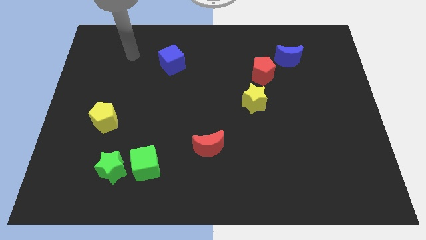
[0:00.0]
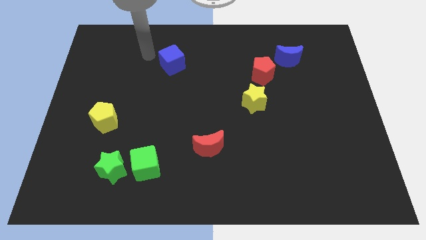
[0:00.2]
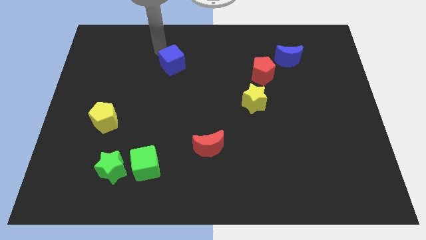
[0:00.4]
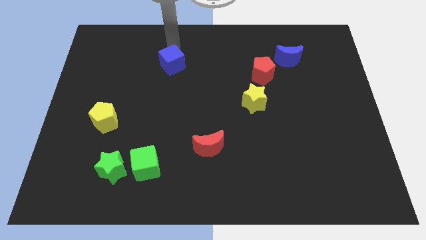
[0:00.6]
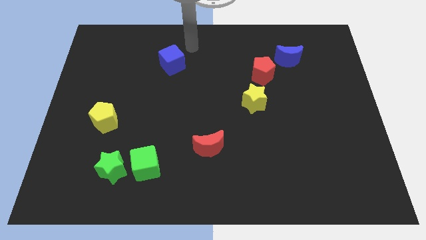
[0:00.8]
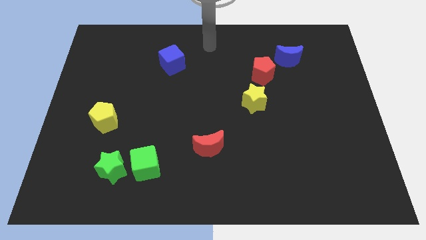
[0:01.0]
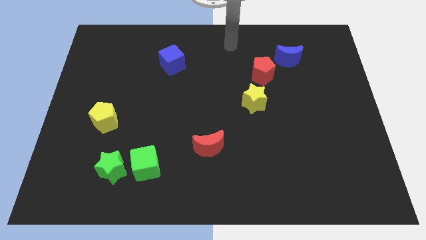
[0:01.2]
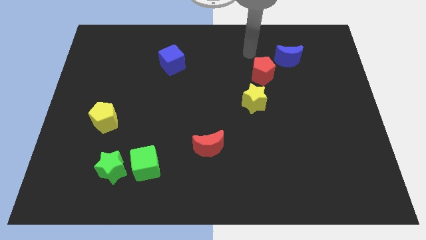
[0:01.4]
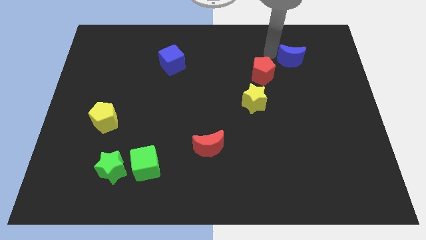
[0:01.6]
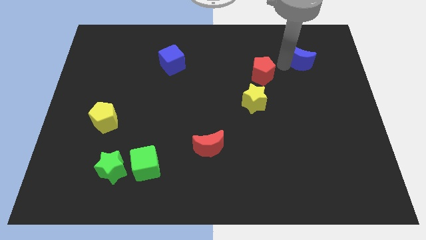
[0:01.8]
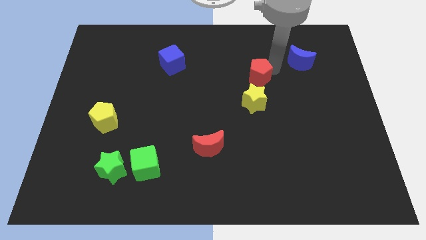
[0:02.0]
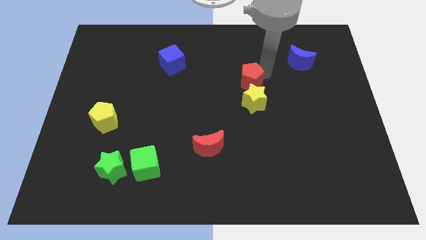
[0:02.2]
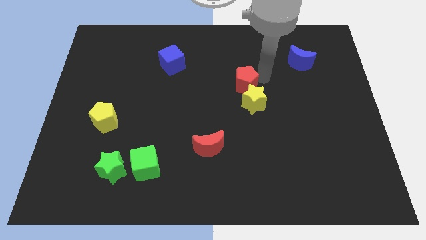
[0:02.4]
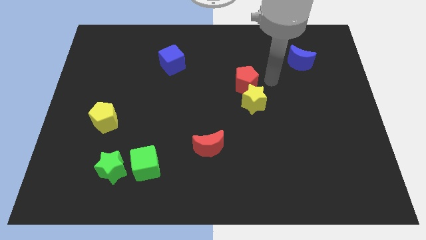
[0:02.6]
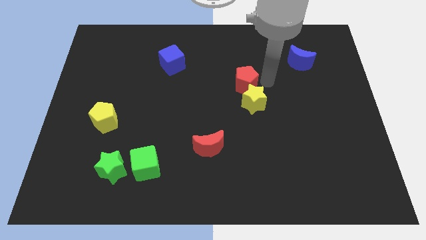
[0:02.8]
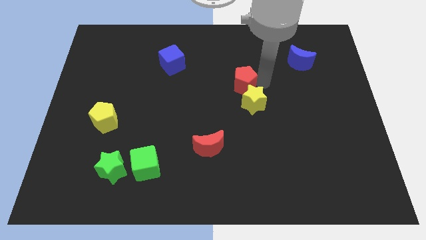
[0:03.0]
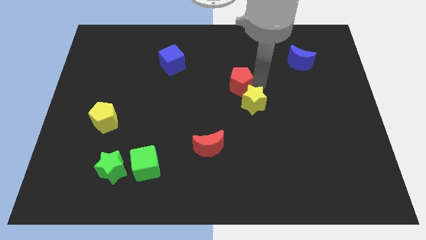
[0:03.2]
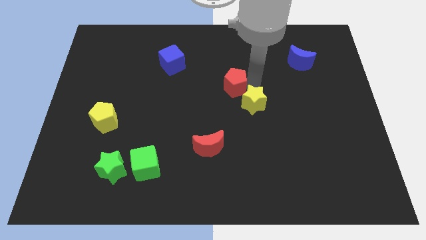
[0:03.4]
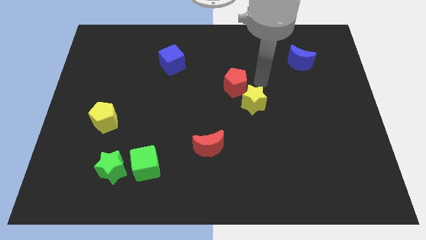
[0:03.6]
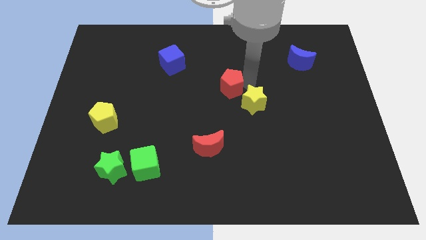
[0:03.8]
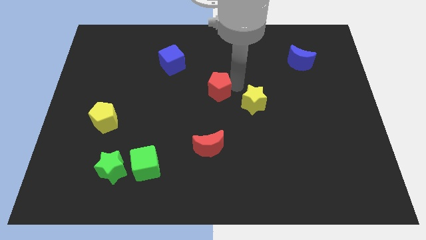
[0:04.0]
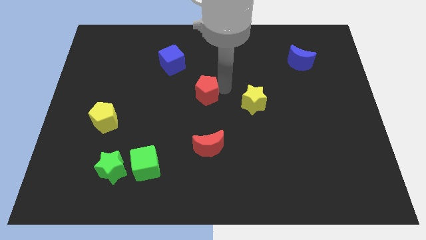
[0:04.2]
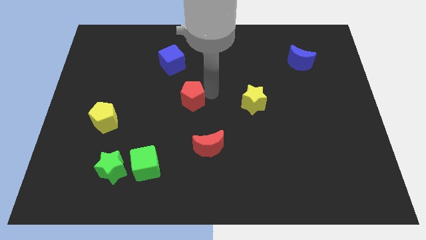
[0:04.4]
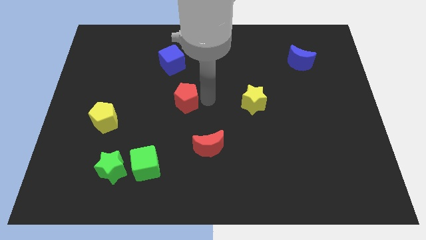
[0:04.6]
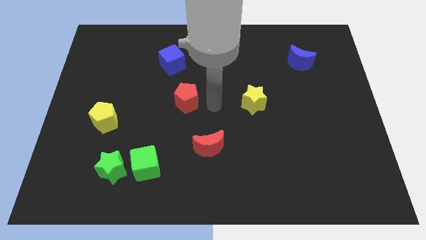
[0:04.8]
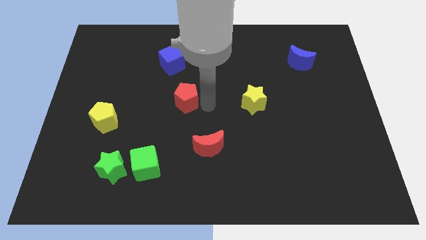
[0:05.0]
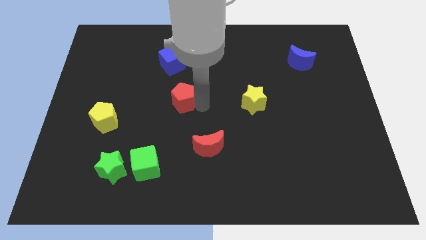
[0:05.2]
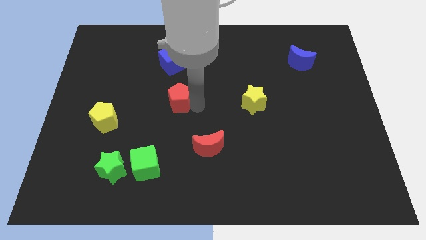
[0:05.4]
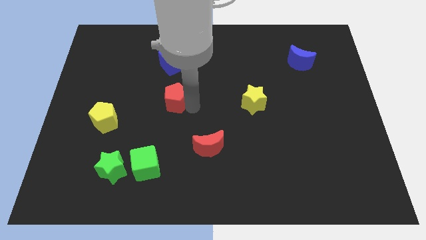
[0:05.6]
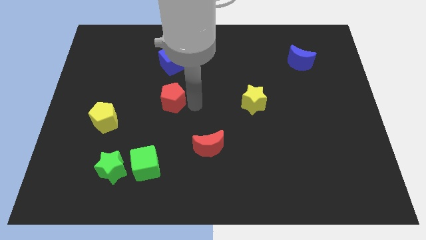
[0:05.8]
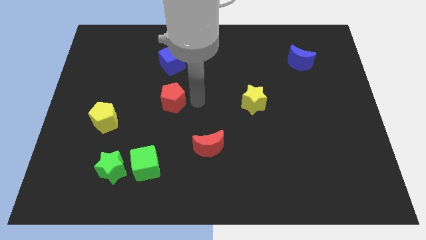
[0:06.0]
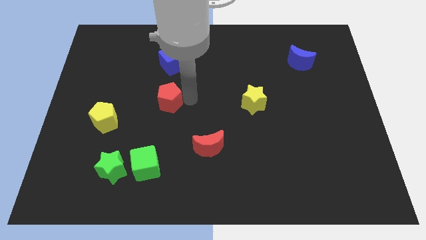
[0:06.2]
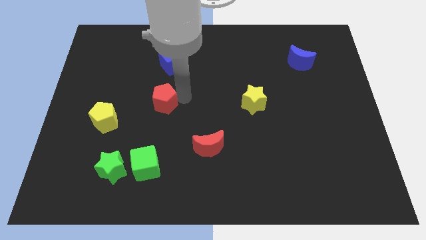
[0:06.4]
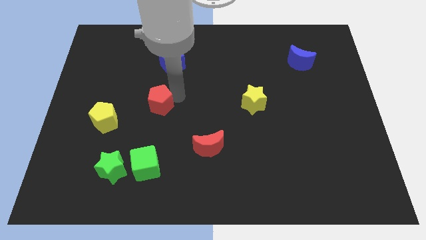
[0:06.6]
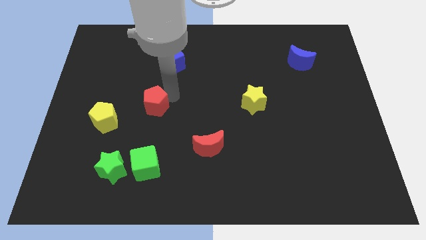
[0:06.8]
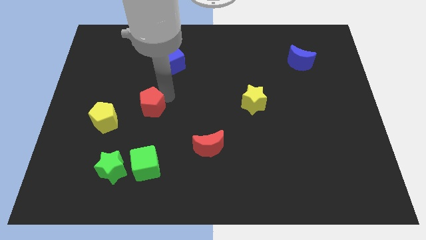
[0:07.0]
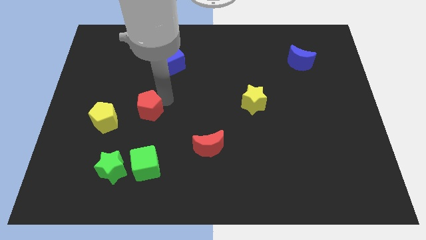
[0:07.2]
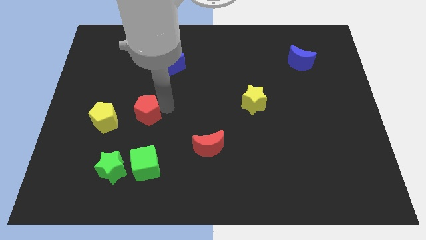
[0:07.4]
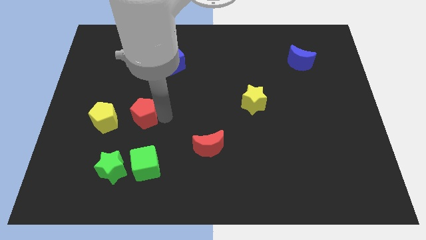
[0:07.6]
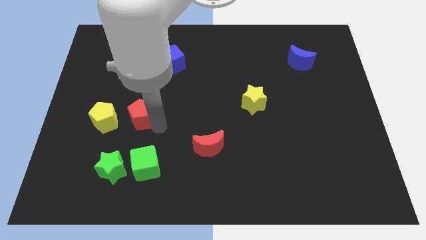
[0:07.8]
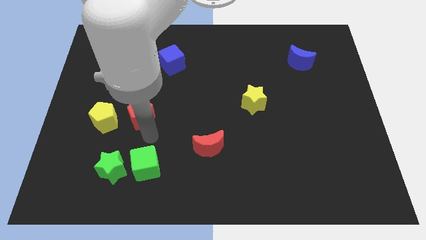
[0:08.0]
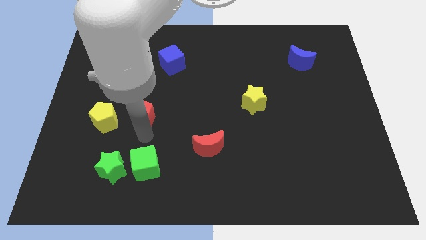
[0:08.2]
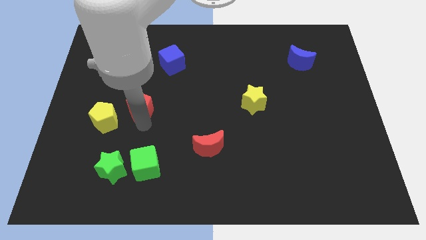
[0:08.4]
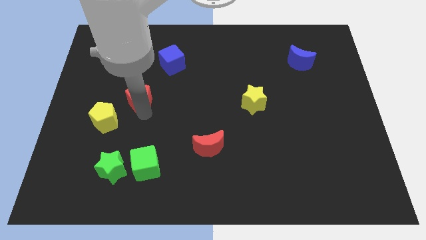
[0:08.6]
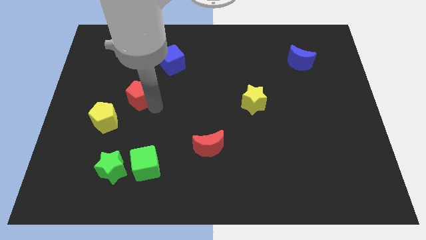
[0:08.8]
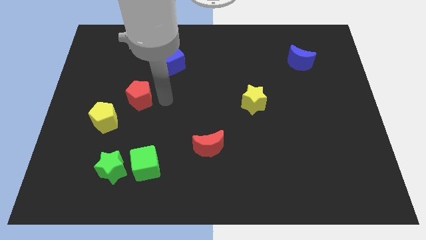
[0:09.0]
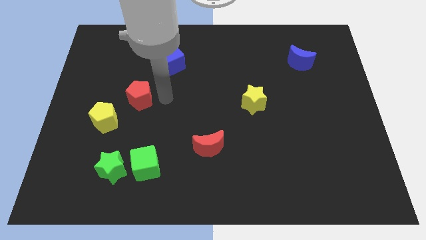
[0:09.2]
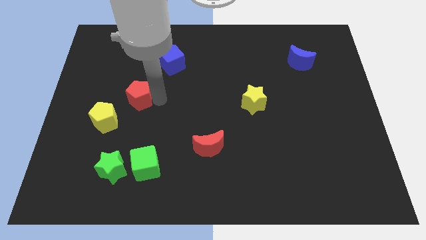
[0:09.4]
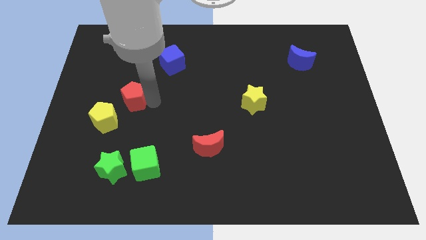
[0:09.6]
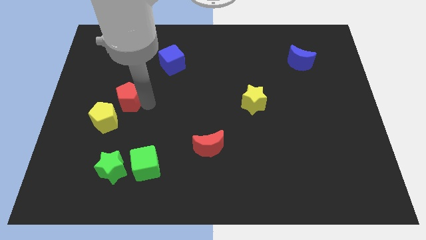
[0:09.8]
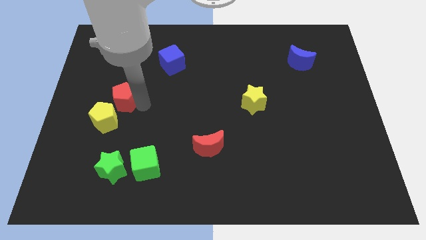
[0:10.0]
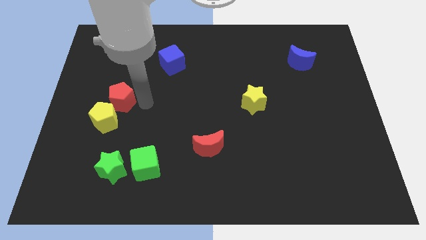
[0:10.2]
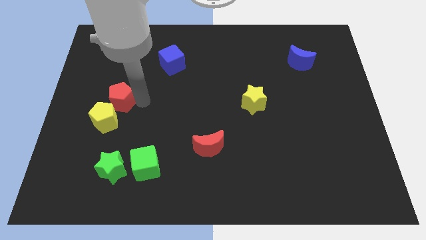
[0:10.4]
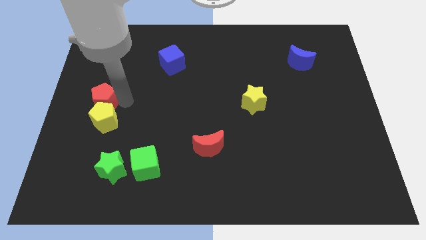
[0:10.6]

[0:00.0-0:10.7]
slide the red pentagon to the center left

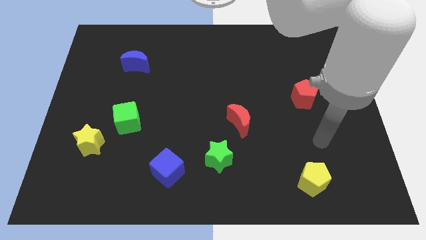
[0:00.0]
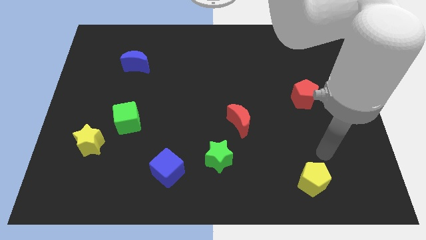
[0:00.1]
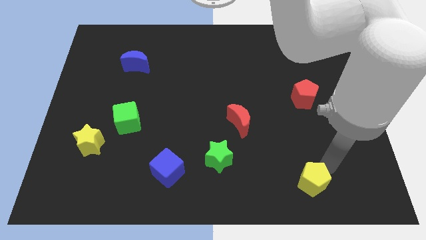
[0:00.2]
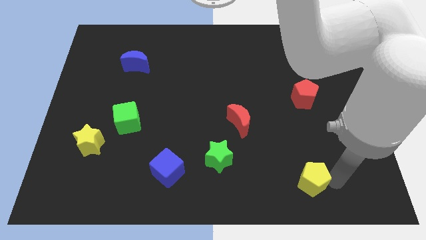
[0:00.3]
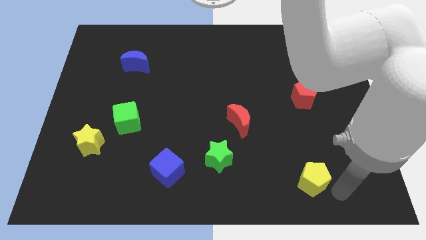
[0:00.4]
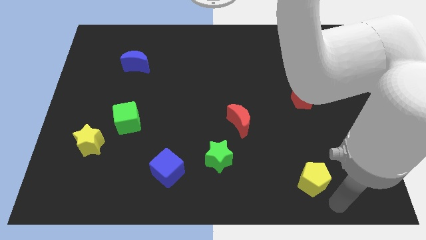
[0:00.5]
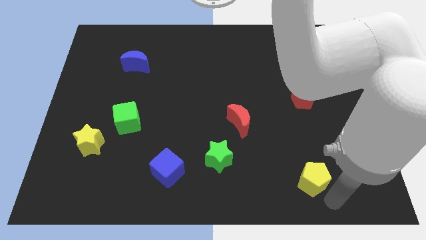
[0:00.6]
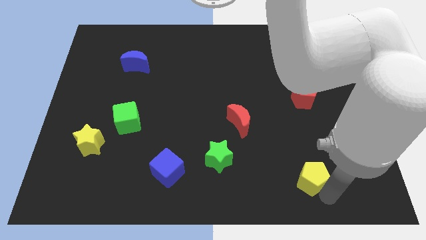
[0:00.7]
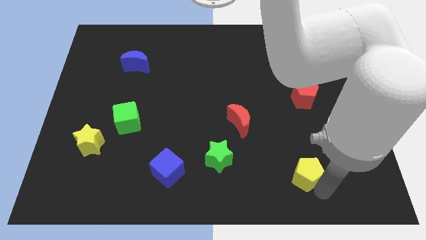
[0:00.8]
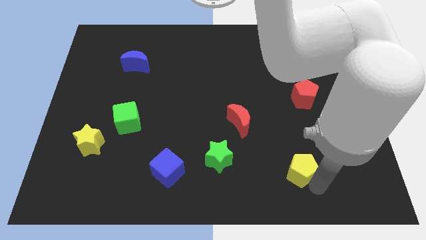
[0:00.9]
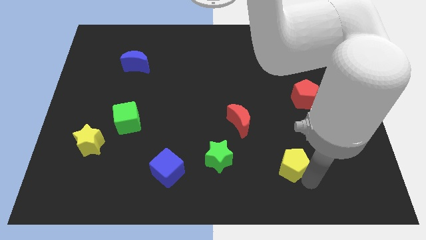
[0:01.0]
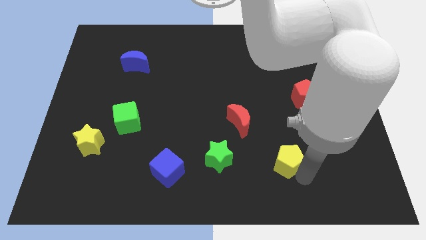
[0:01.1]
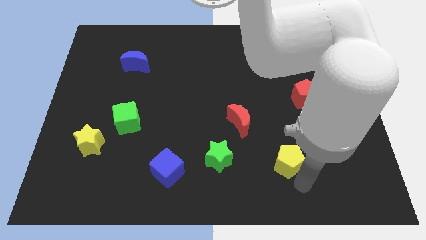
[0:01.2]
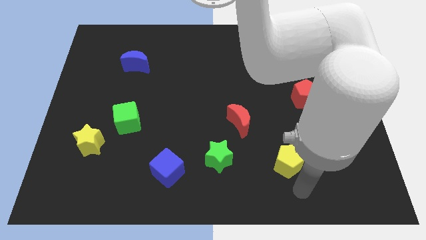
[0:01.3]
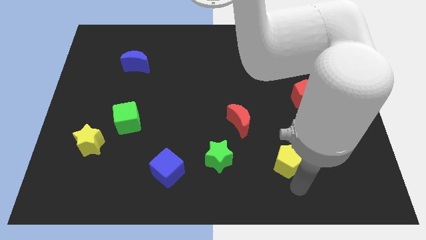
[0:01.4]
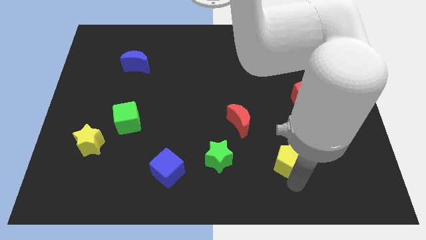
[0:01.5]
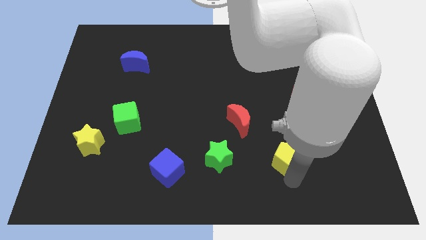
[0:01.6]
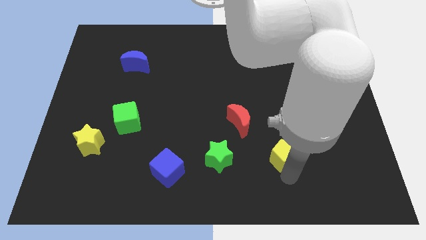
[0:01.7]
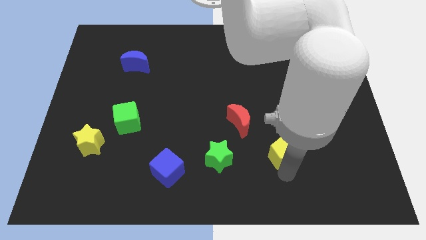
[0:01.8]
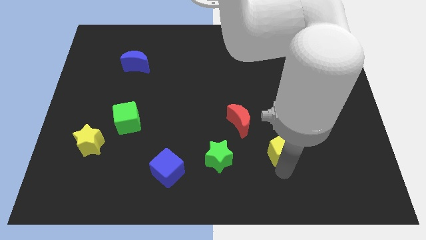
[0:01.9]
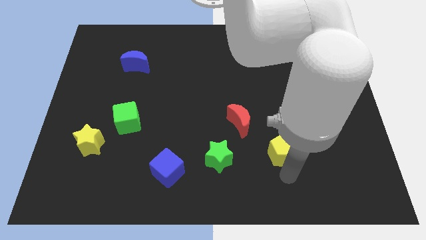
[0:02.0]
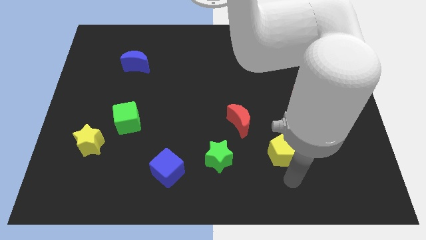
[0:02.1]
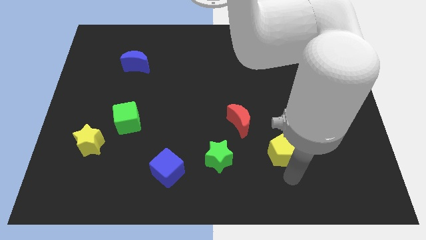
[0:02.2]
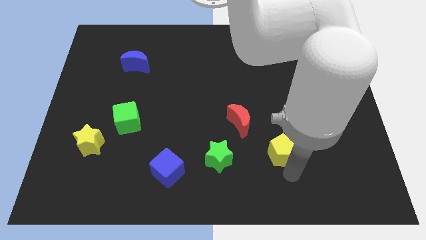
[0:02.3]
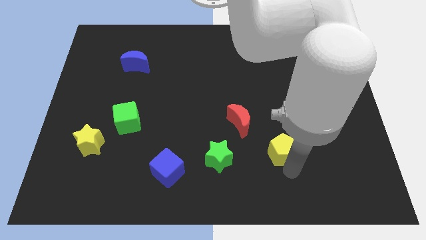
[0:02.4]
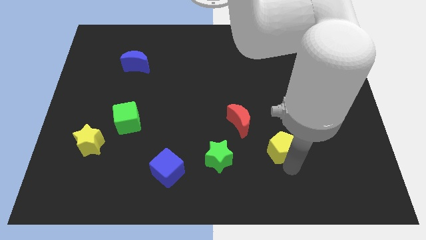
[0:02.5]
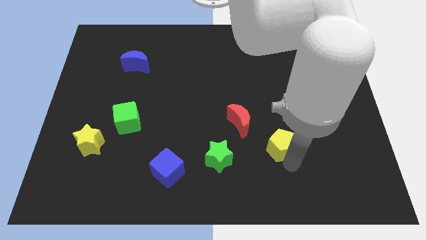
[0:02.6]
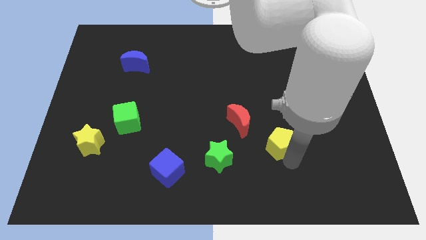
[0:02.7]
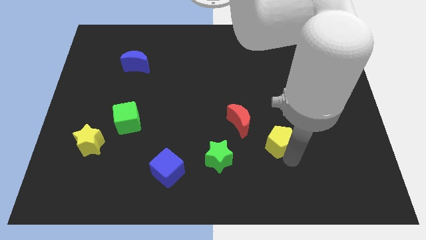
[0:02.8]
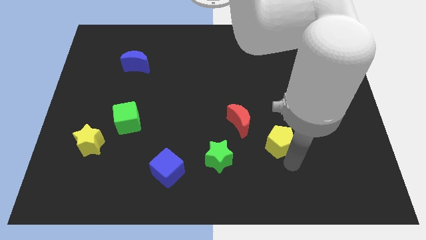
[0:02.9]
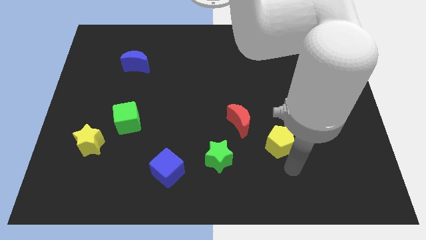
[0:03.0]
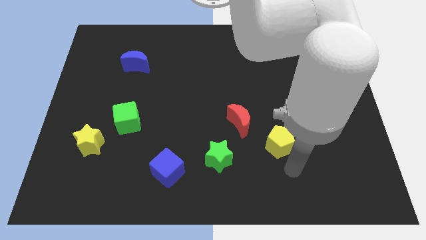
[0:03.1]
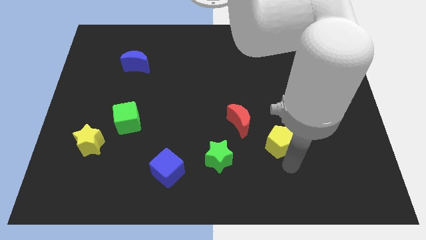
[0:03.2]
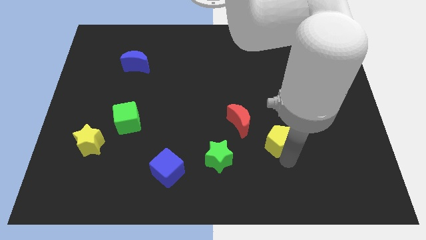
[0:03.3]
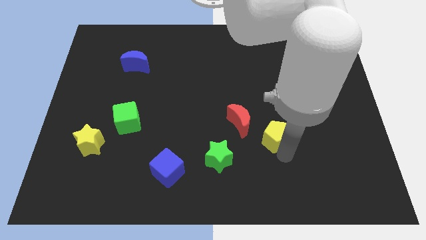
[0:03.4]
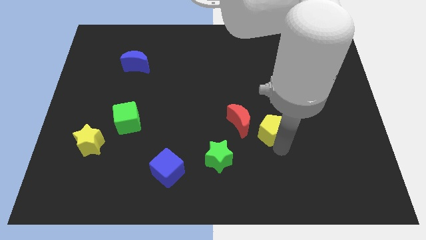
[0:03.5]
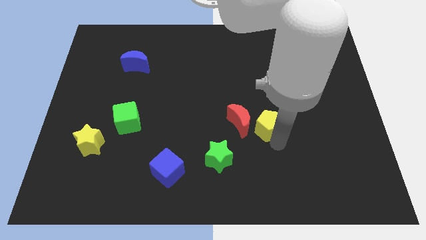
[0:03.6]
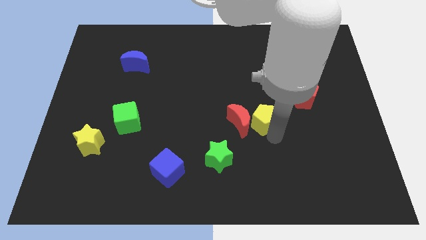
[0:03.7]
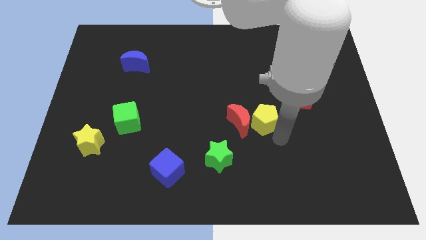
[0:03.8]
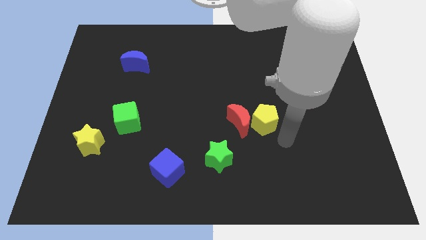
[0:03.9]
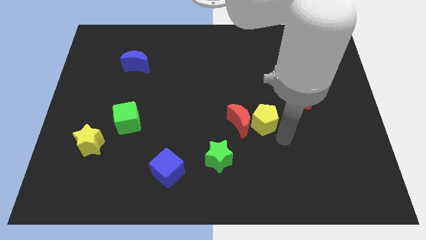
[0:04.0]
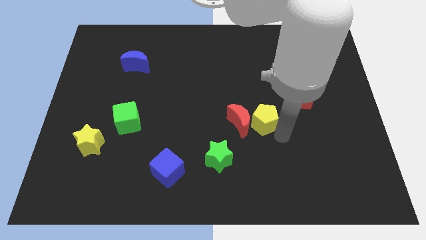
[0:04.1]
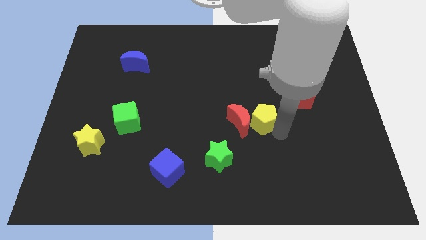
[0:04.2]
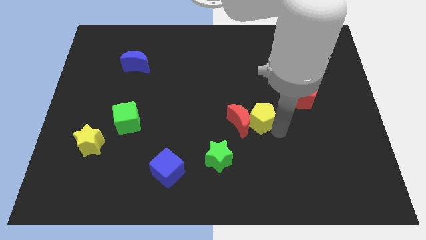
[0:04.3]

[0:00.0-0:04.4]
put the yellow pentagon to the center
